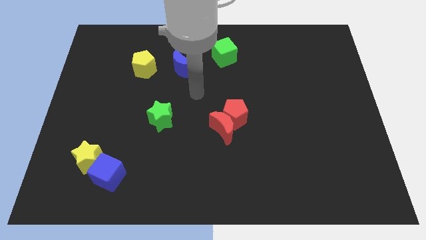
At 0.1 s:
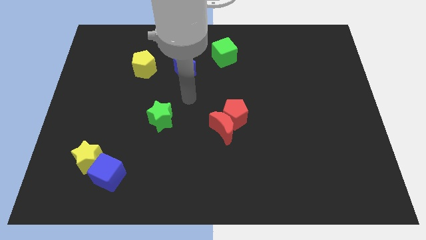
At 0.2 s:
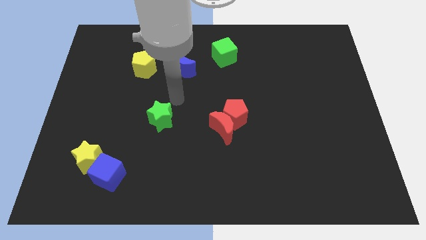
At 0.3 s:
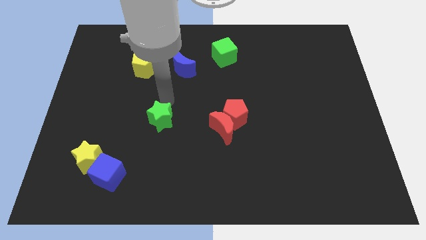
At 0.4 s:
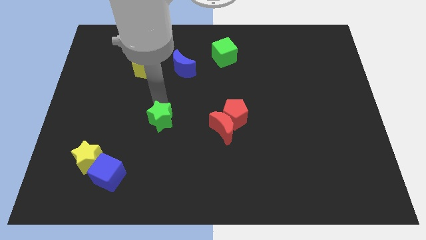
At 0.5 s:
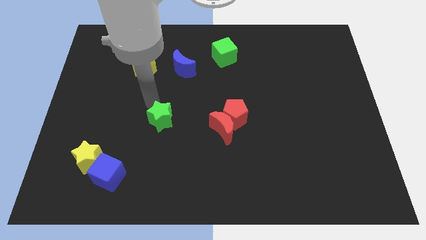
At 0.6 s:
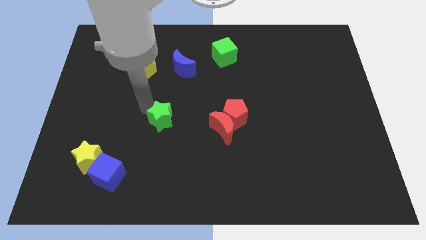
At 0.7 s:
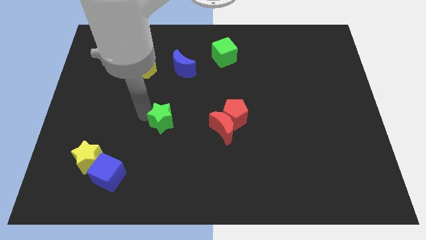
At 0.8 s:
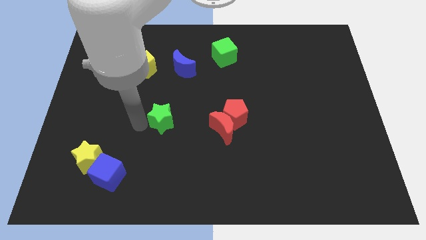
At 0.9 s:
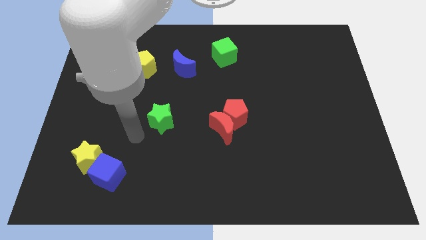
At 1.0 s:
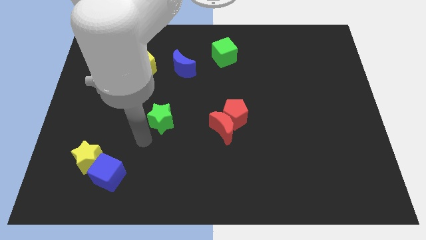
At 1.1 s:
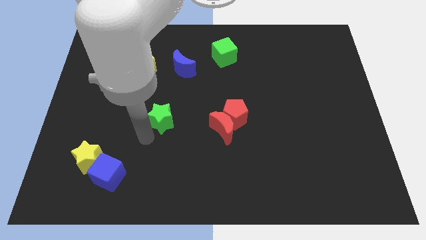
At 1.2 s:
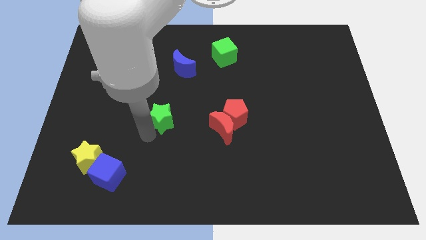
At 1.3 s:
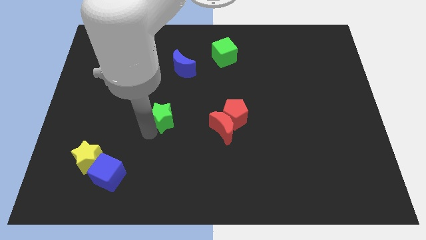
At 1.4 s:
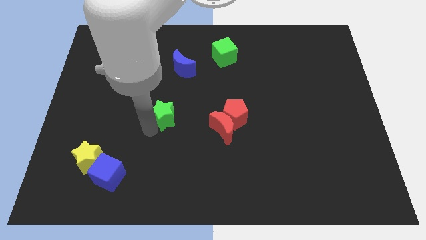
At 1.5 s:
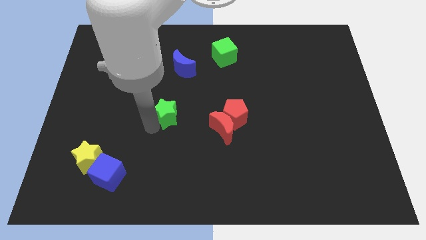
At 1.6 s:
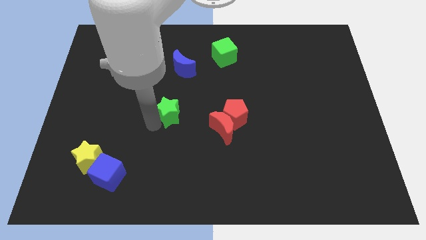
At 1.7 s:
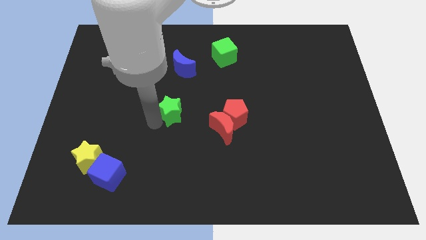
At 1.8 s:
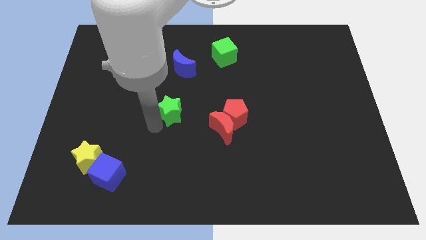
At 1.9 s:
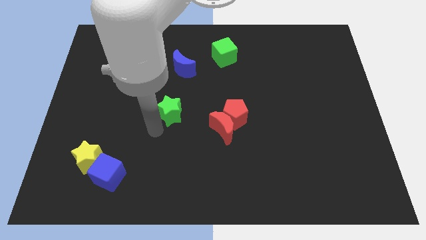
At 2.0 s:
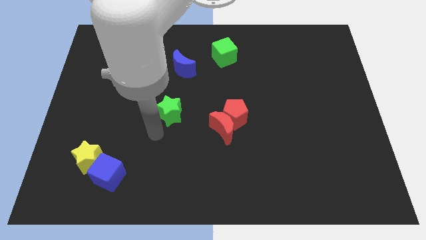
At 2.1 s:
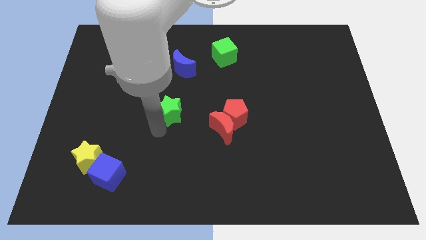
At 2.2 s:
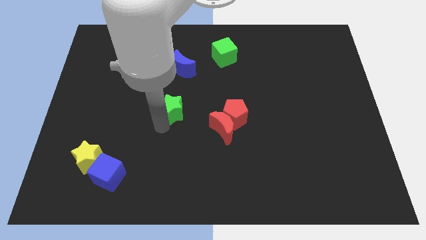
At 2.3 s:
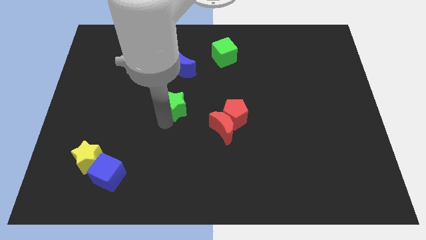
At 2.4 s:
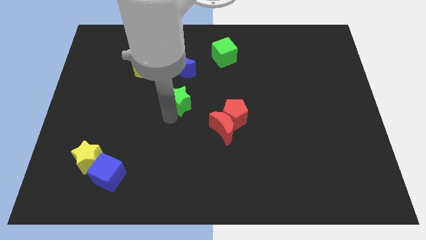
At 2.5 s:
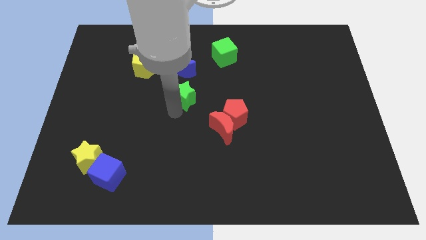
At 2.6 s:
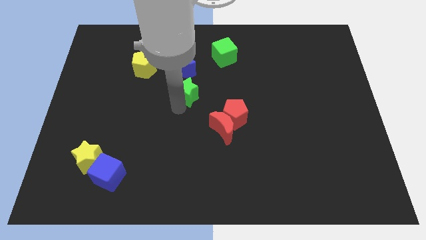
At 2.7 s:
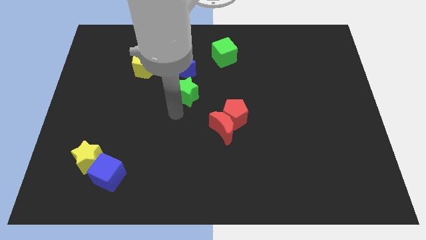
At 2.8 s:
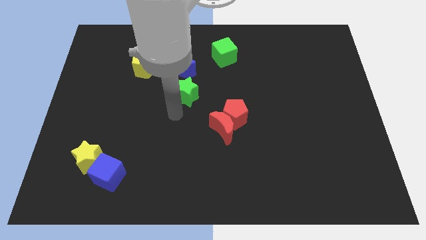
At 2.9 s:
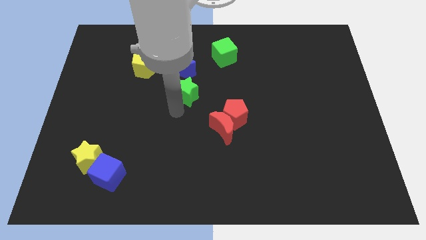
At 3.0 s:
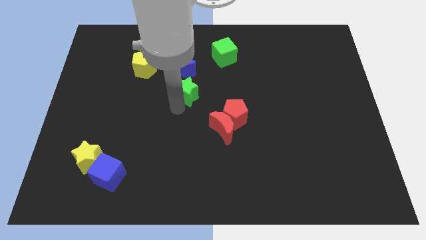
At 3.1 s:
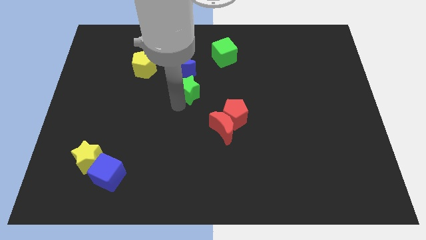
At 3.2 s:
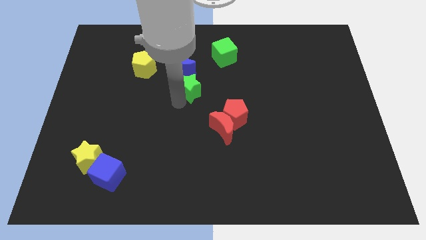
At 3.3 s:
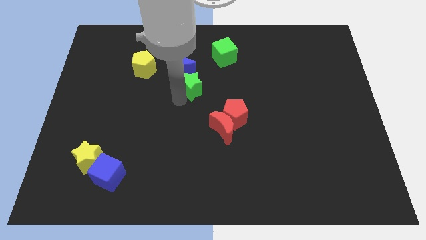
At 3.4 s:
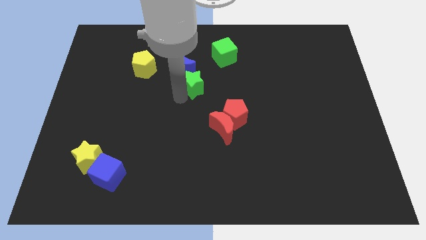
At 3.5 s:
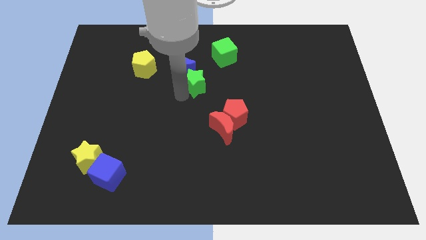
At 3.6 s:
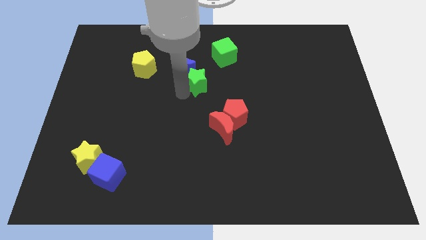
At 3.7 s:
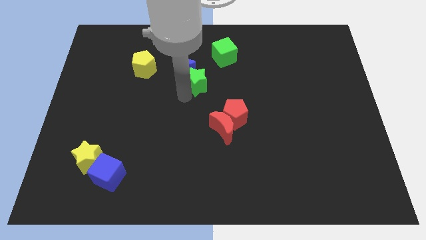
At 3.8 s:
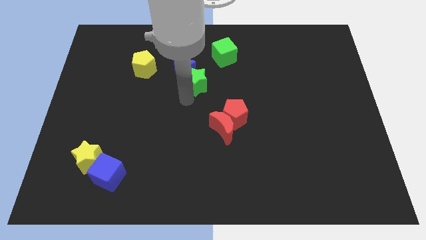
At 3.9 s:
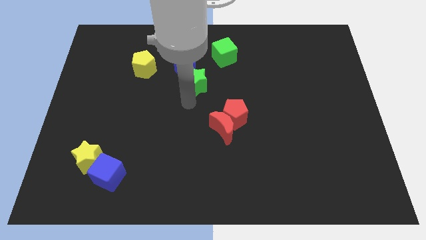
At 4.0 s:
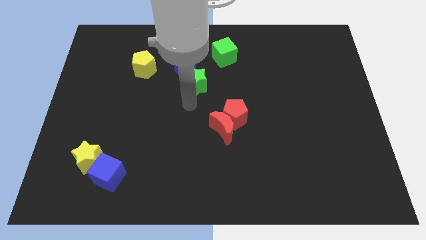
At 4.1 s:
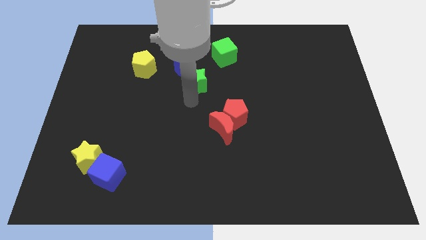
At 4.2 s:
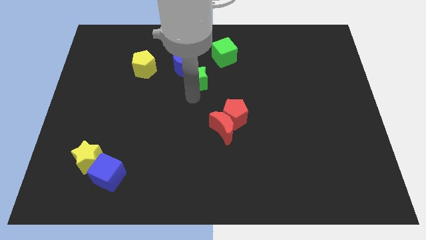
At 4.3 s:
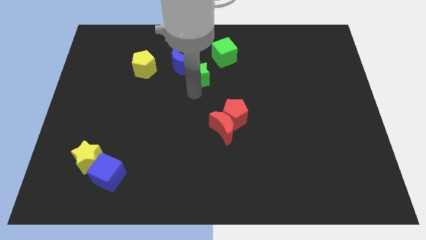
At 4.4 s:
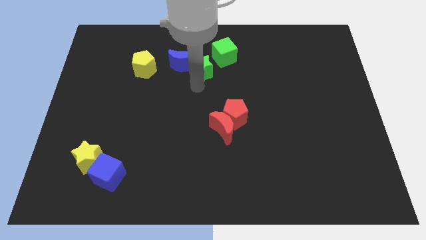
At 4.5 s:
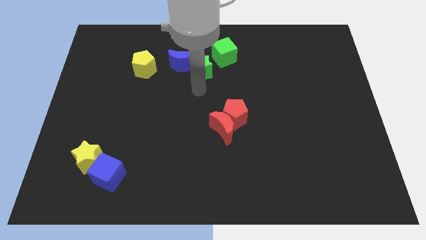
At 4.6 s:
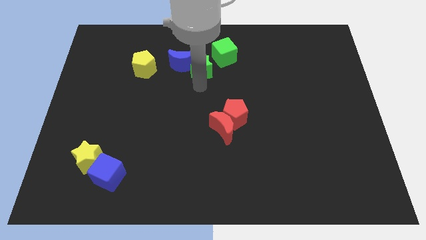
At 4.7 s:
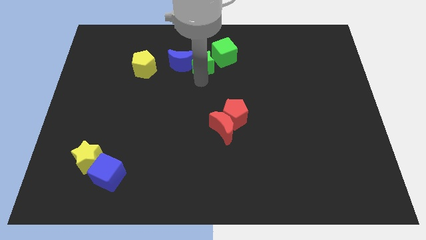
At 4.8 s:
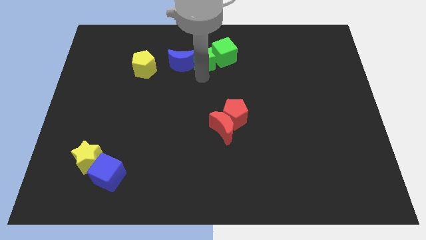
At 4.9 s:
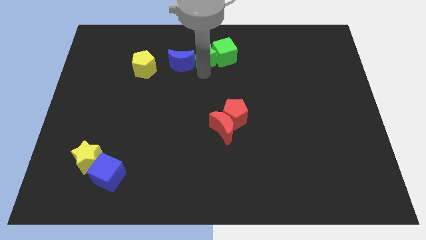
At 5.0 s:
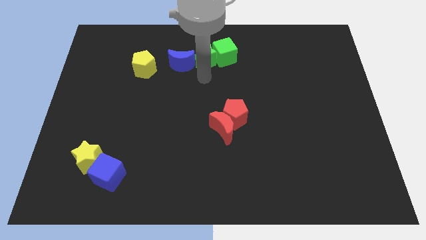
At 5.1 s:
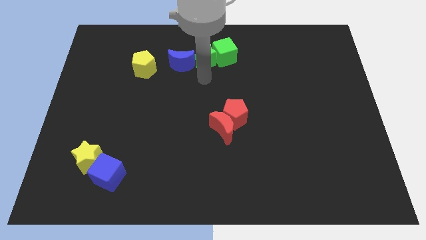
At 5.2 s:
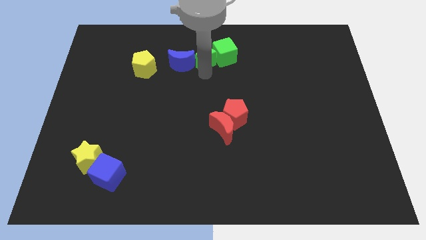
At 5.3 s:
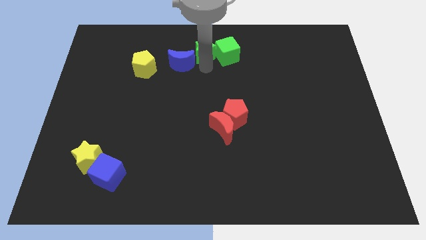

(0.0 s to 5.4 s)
push the green star to the towards your base

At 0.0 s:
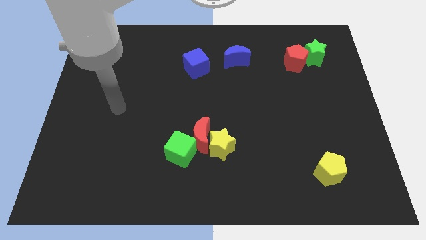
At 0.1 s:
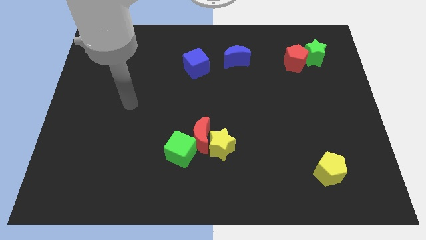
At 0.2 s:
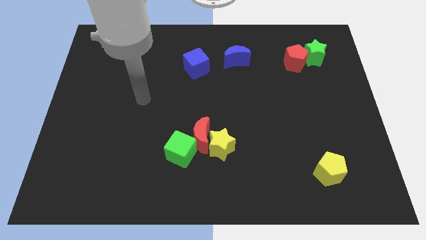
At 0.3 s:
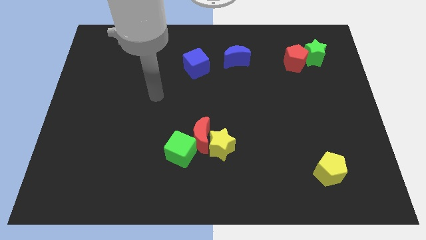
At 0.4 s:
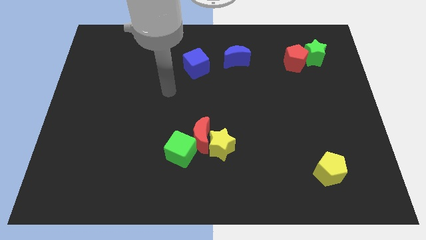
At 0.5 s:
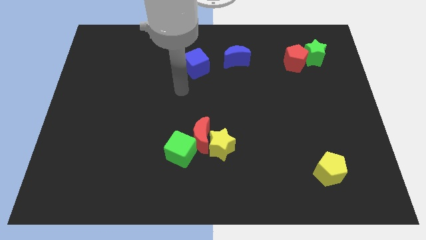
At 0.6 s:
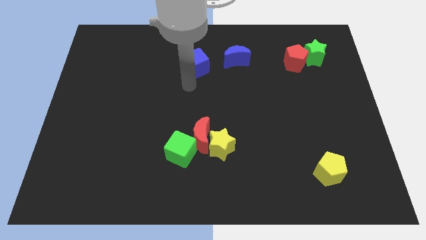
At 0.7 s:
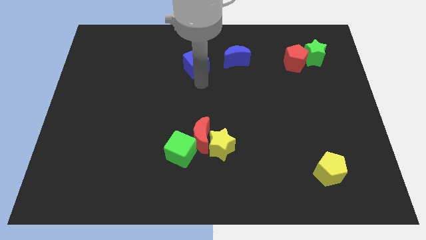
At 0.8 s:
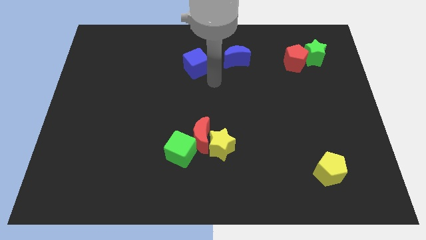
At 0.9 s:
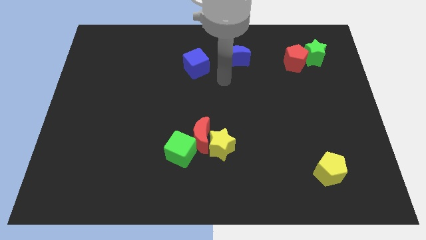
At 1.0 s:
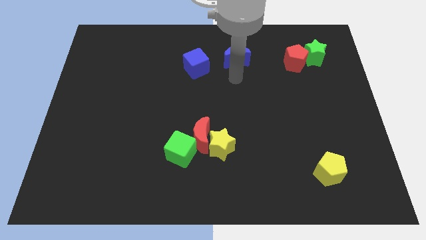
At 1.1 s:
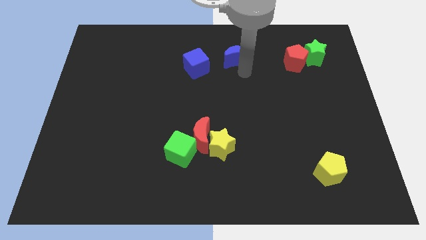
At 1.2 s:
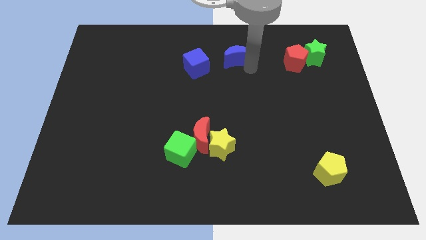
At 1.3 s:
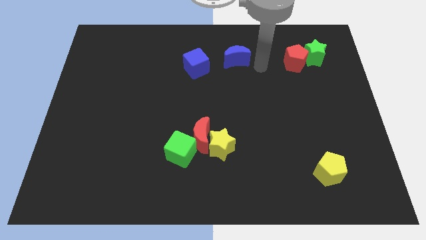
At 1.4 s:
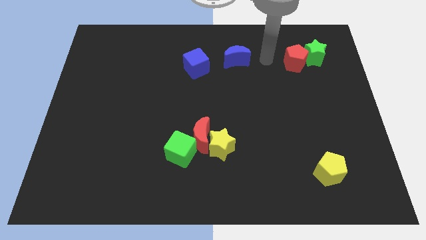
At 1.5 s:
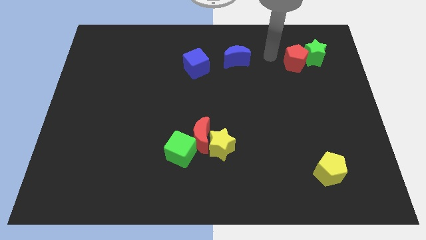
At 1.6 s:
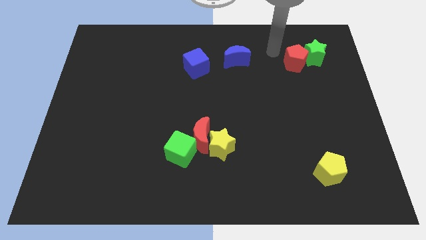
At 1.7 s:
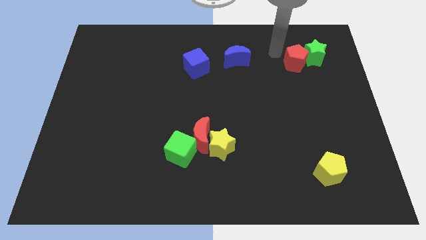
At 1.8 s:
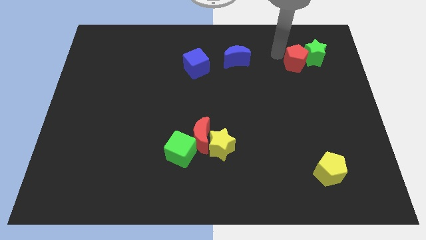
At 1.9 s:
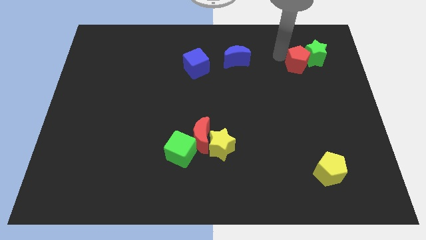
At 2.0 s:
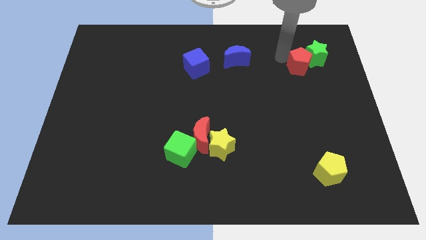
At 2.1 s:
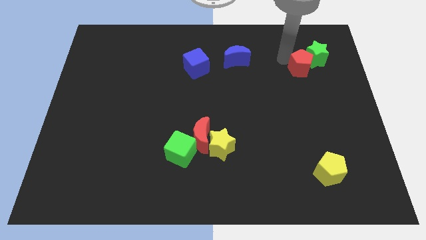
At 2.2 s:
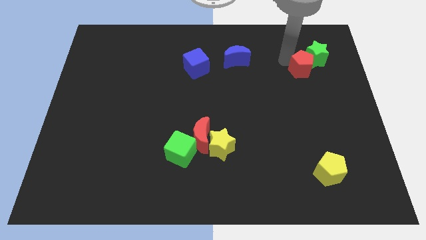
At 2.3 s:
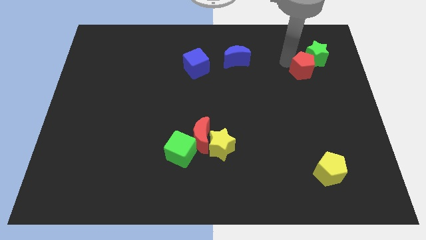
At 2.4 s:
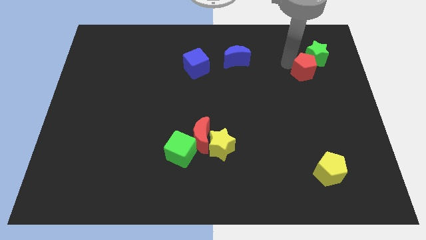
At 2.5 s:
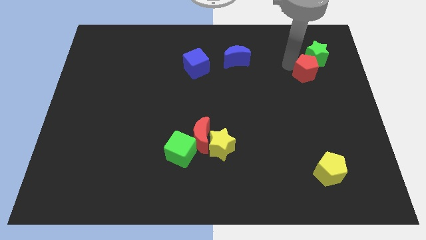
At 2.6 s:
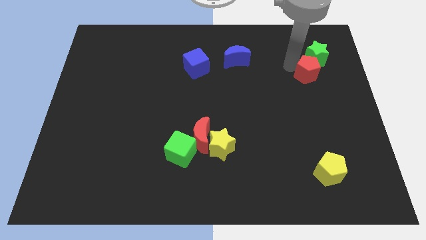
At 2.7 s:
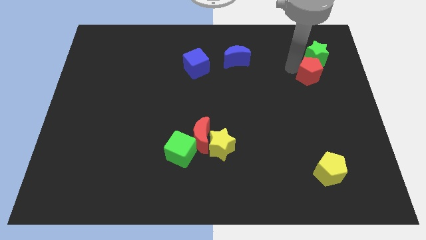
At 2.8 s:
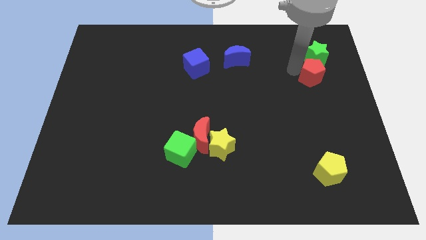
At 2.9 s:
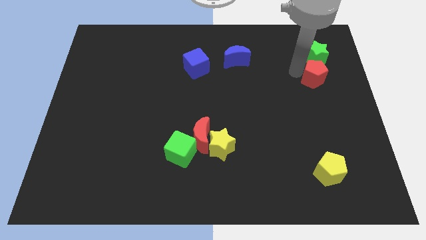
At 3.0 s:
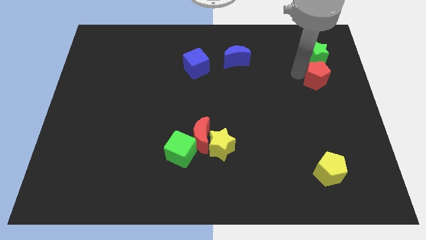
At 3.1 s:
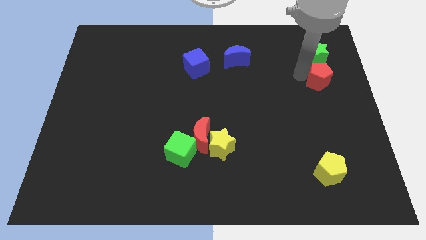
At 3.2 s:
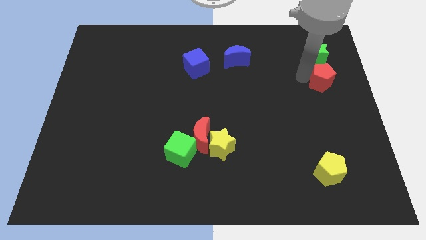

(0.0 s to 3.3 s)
move the red pentagon to the right side of the board
